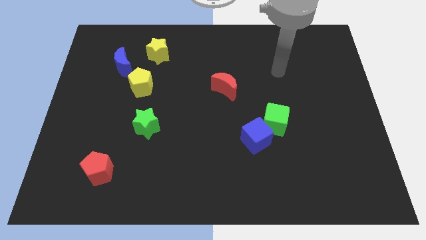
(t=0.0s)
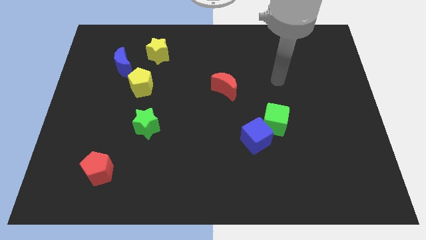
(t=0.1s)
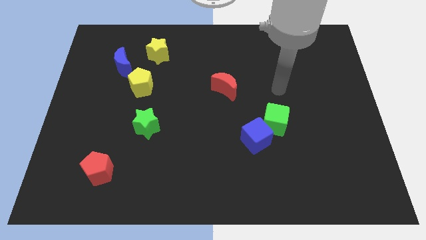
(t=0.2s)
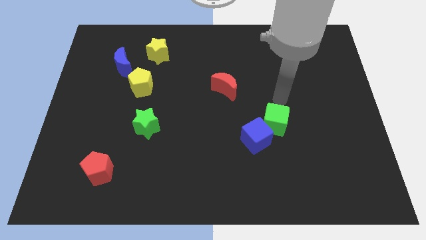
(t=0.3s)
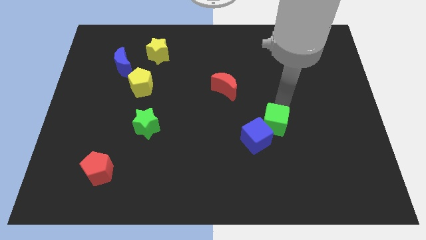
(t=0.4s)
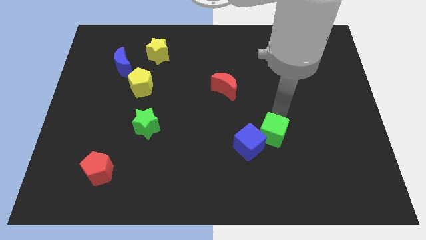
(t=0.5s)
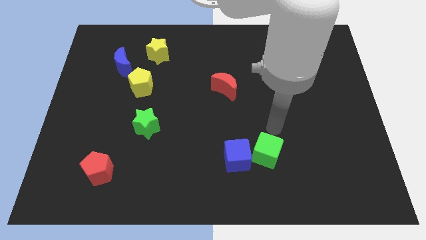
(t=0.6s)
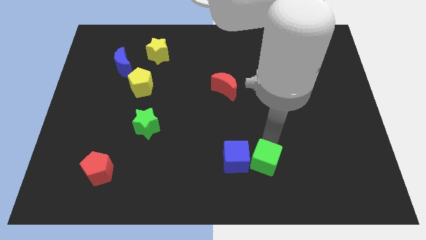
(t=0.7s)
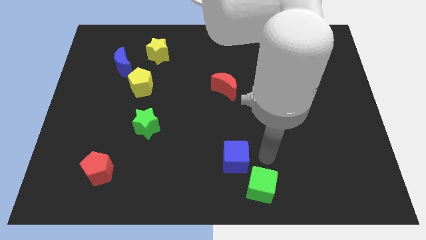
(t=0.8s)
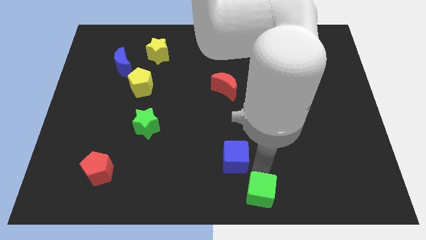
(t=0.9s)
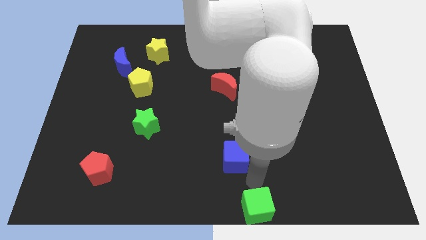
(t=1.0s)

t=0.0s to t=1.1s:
pull the blue cube apart from the green cube

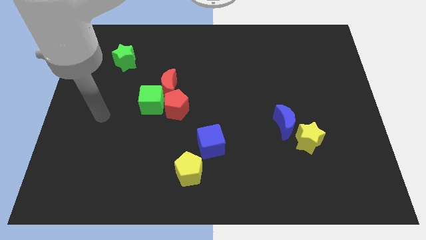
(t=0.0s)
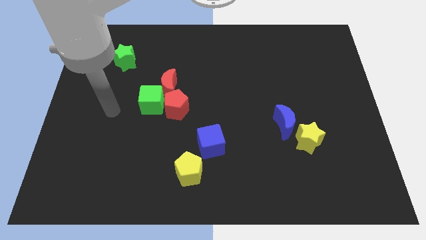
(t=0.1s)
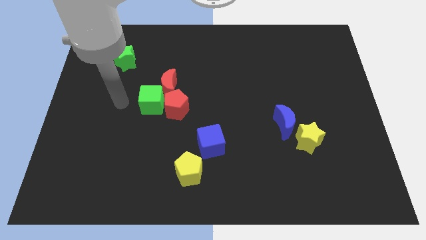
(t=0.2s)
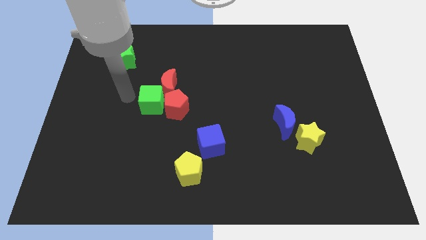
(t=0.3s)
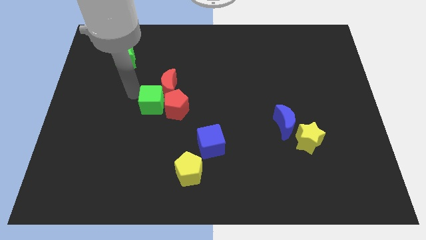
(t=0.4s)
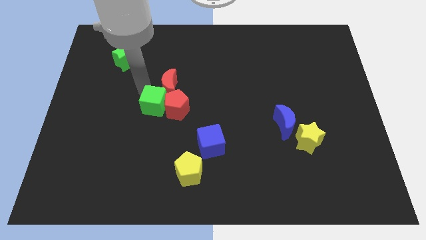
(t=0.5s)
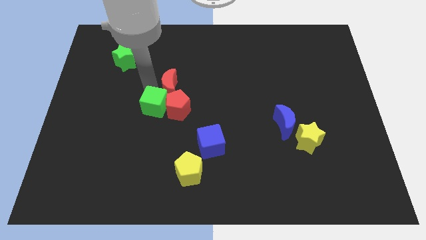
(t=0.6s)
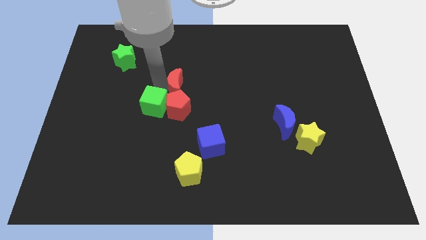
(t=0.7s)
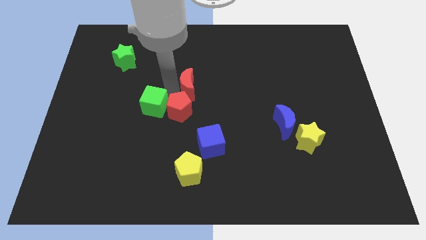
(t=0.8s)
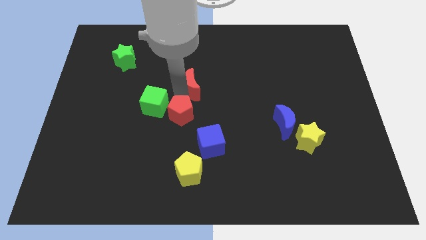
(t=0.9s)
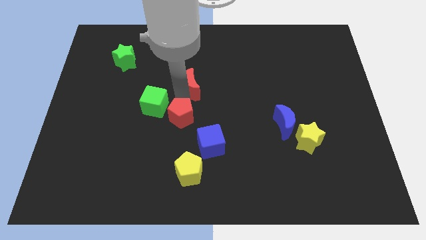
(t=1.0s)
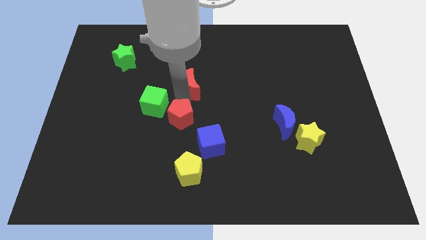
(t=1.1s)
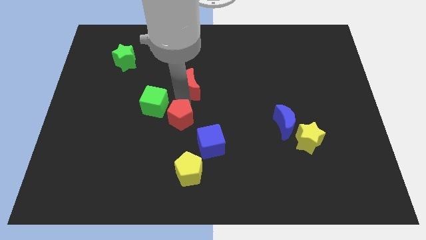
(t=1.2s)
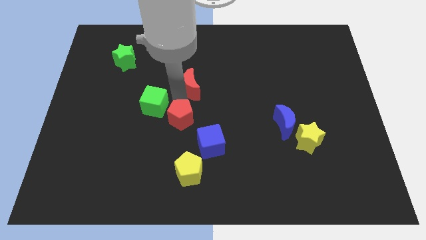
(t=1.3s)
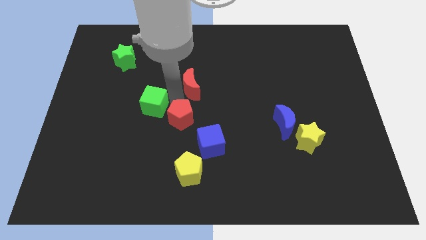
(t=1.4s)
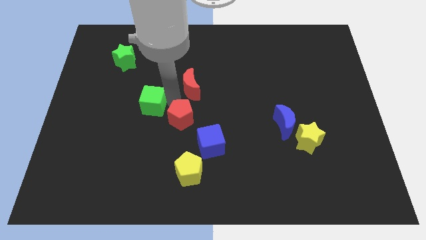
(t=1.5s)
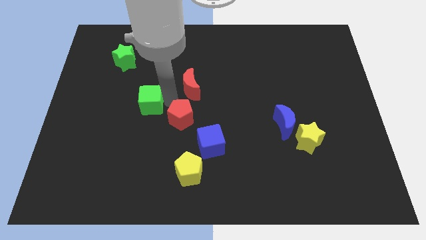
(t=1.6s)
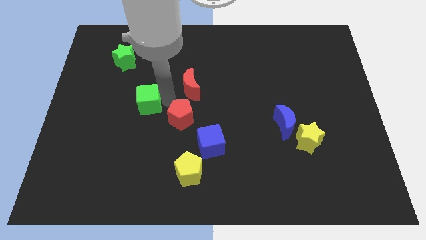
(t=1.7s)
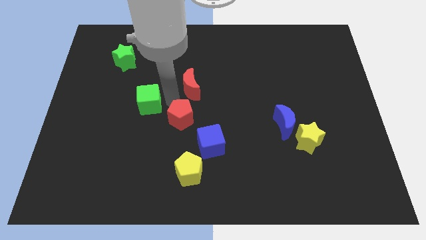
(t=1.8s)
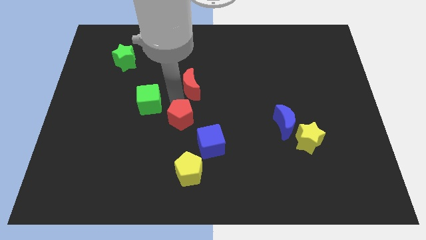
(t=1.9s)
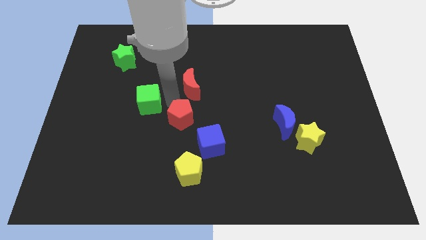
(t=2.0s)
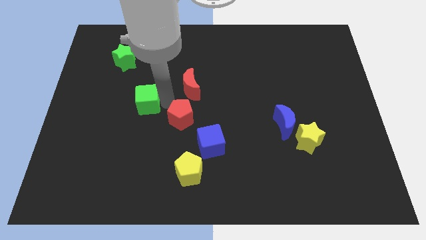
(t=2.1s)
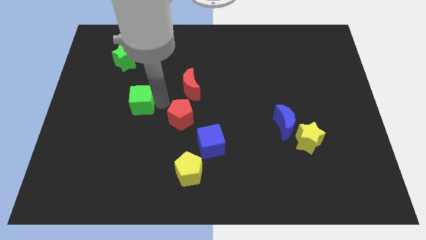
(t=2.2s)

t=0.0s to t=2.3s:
pull the green cube apart from the red moon and red pentagon

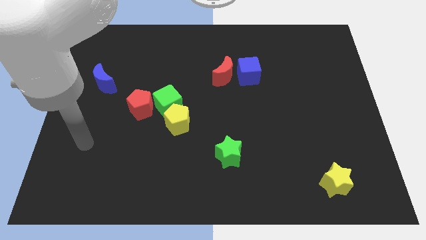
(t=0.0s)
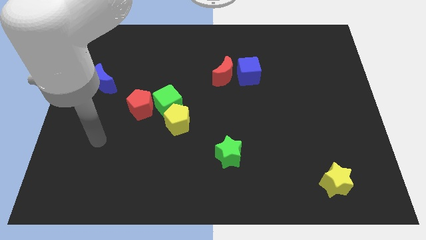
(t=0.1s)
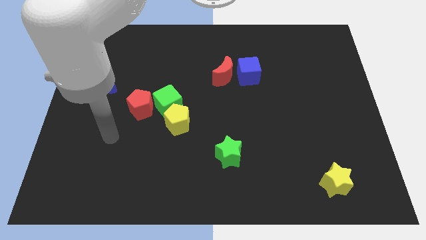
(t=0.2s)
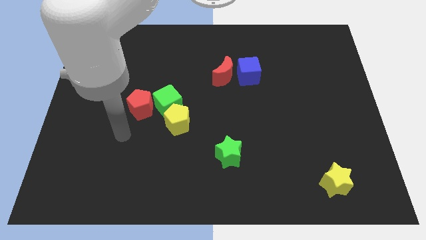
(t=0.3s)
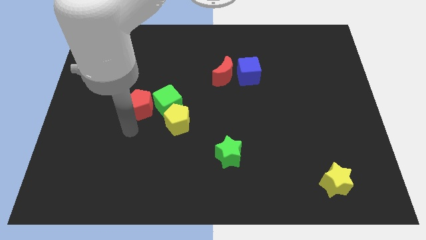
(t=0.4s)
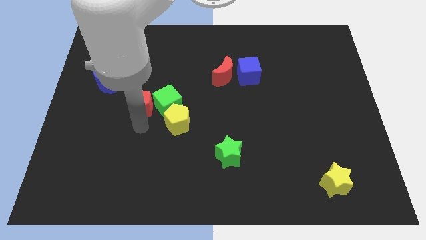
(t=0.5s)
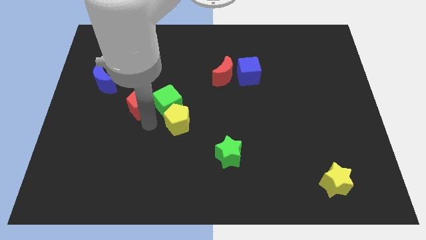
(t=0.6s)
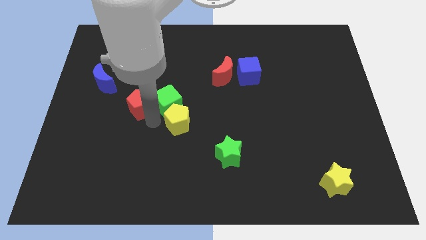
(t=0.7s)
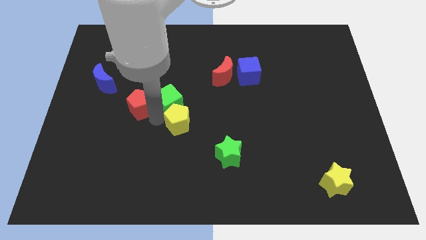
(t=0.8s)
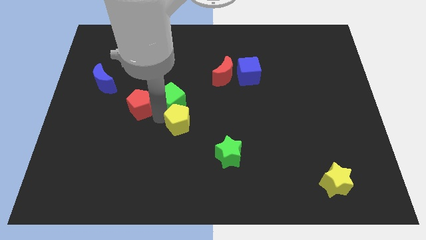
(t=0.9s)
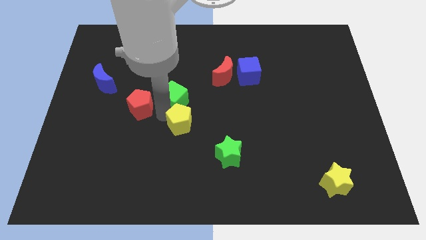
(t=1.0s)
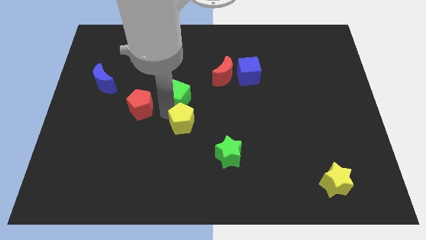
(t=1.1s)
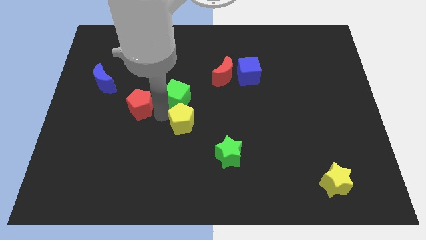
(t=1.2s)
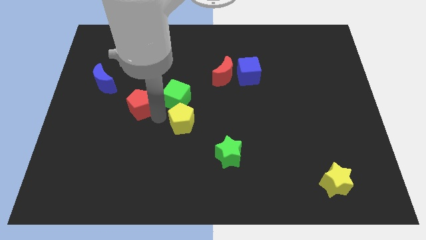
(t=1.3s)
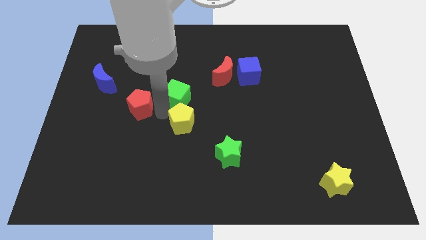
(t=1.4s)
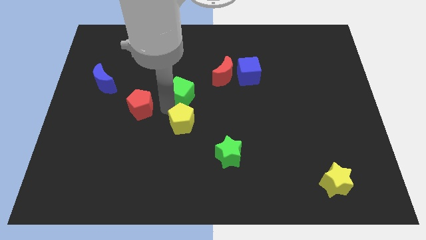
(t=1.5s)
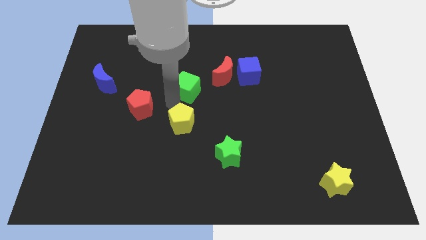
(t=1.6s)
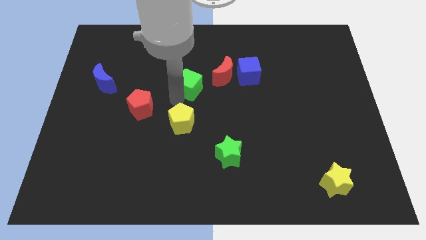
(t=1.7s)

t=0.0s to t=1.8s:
move the green cube away from the yellow pentagon and red pentagon

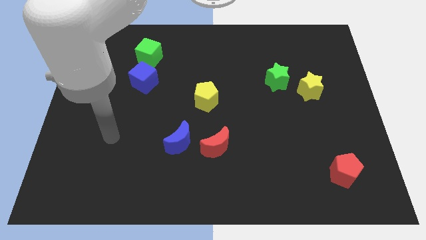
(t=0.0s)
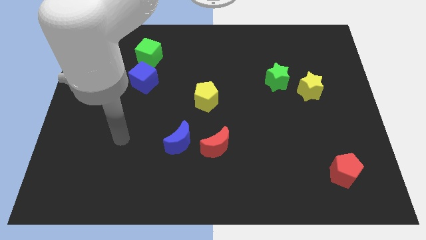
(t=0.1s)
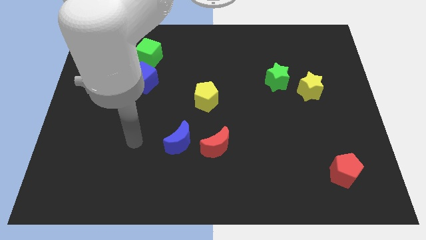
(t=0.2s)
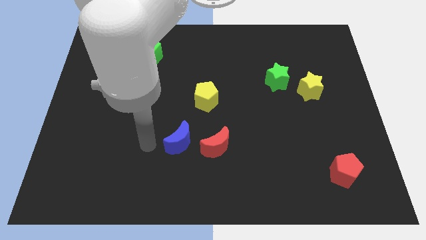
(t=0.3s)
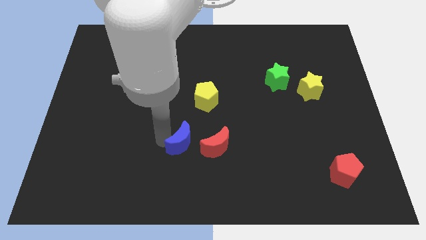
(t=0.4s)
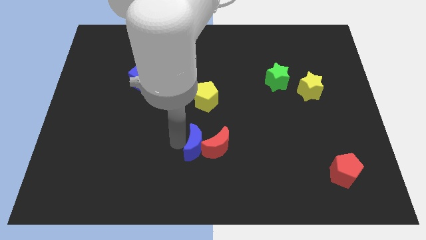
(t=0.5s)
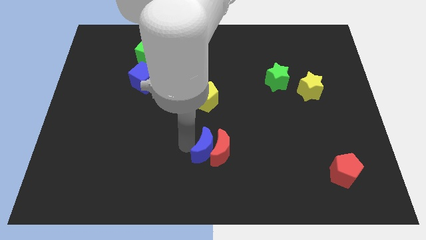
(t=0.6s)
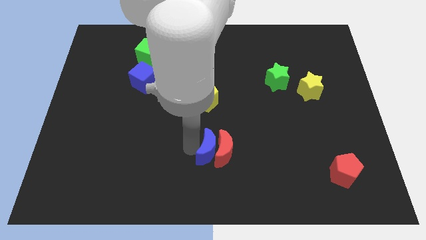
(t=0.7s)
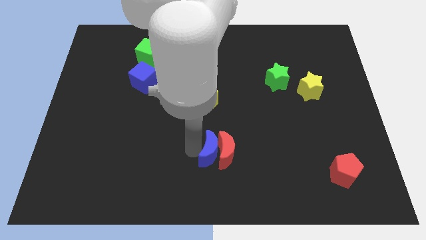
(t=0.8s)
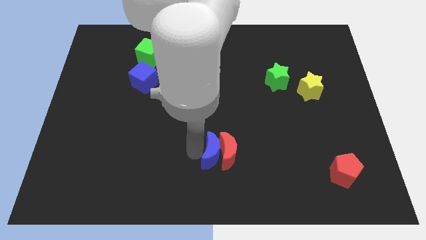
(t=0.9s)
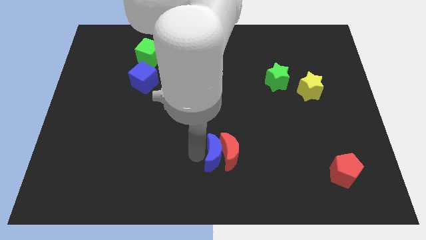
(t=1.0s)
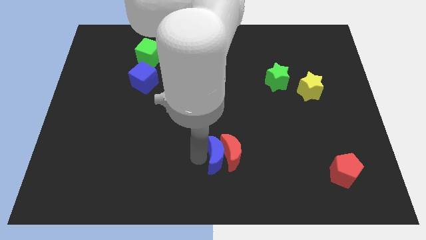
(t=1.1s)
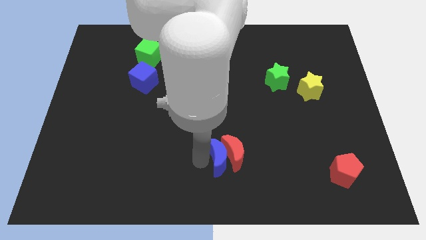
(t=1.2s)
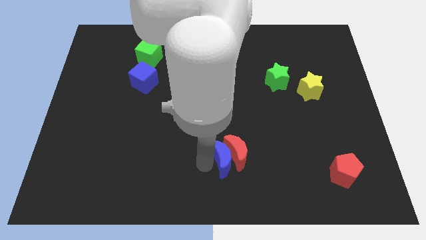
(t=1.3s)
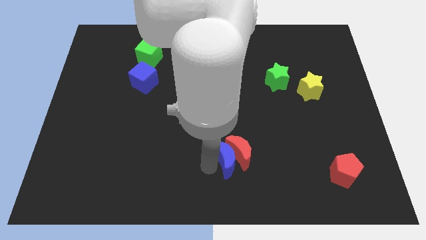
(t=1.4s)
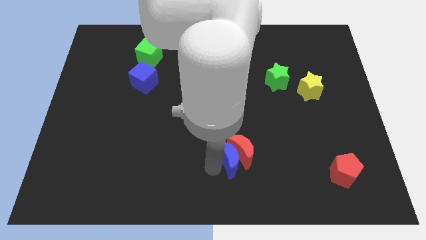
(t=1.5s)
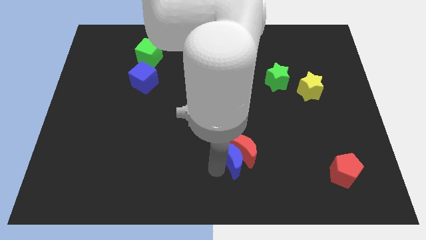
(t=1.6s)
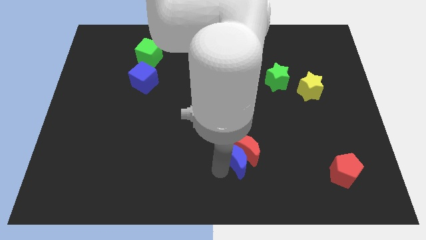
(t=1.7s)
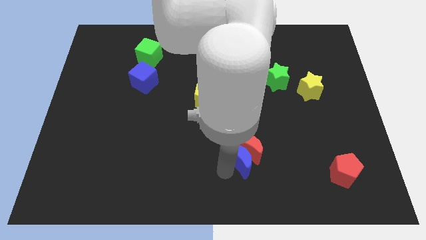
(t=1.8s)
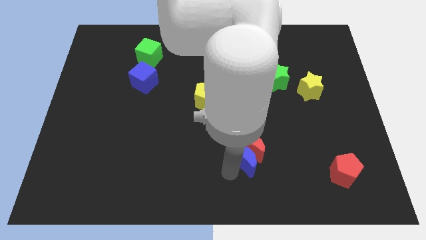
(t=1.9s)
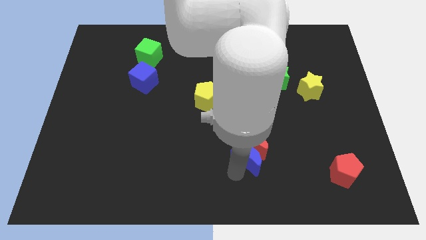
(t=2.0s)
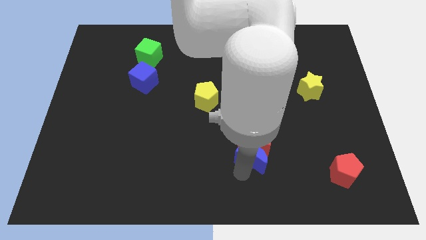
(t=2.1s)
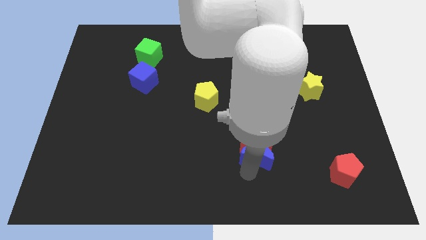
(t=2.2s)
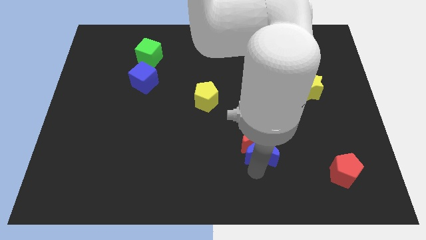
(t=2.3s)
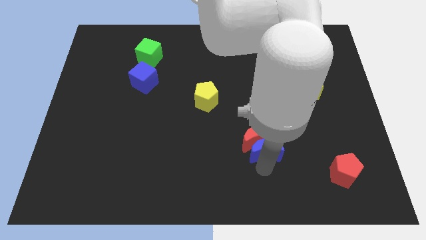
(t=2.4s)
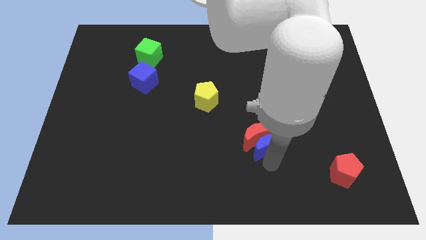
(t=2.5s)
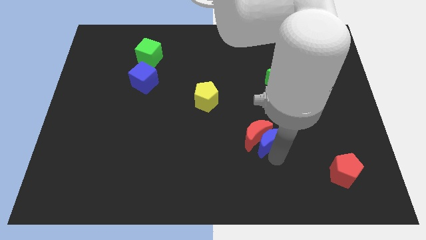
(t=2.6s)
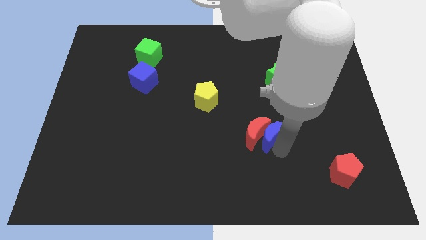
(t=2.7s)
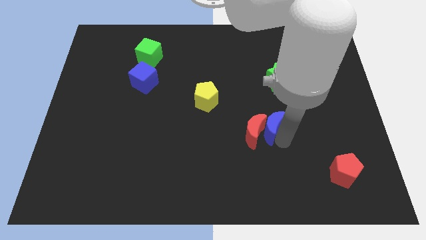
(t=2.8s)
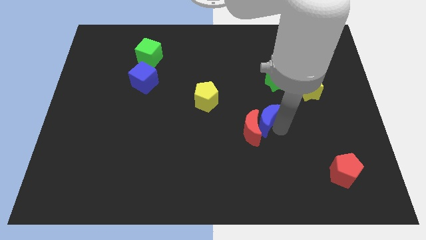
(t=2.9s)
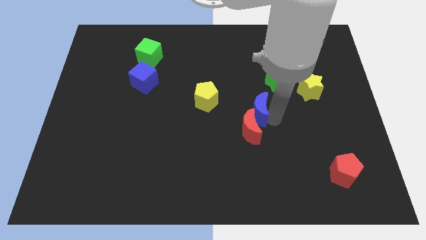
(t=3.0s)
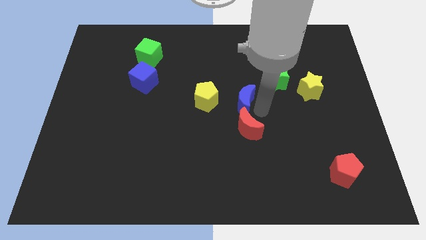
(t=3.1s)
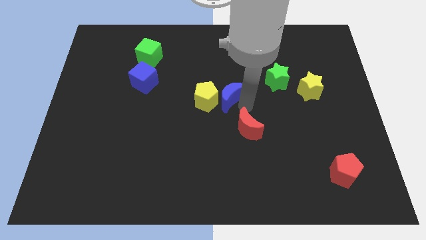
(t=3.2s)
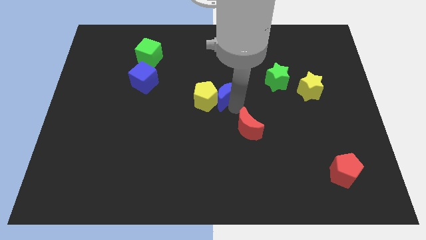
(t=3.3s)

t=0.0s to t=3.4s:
pull the red moon apart from the blue moon

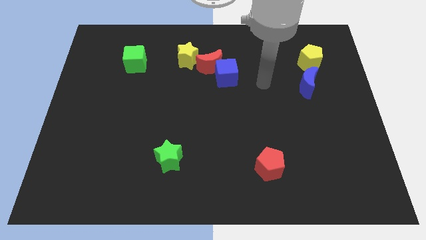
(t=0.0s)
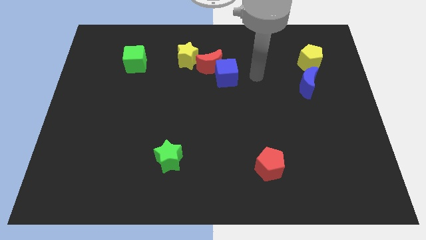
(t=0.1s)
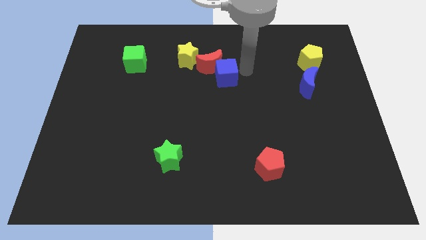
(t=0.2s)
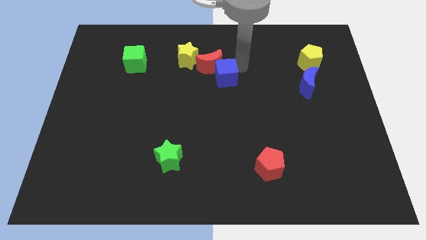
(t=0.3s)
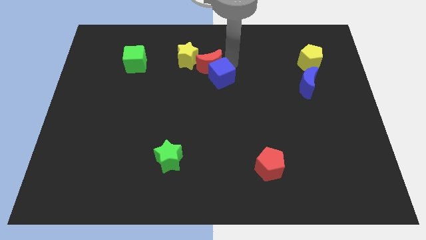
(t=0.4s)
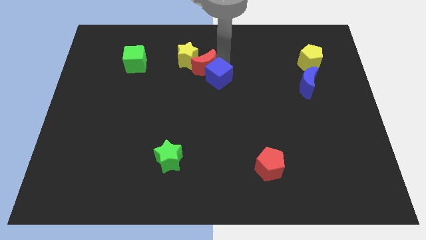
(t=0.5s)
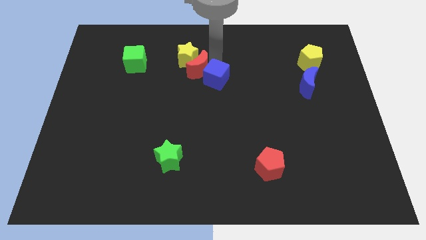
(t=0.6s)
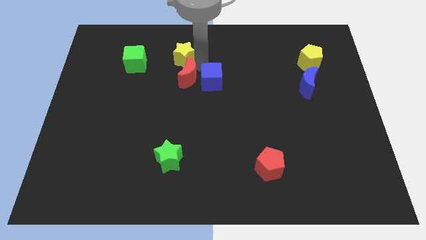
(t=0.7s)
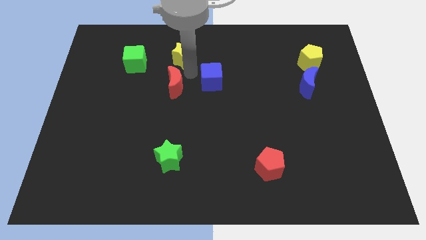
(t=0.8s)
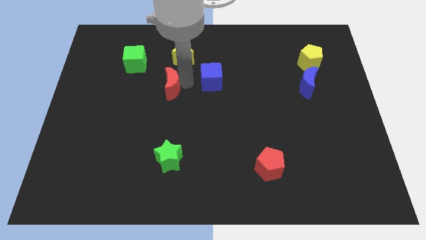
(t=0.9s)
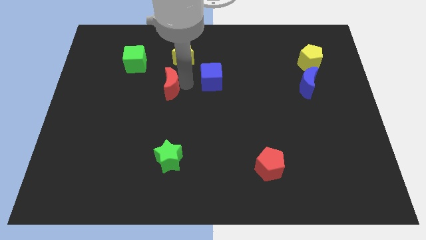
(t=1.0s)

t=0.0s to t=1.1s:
separate the blue cube from the red moon
